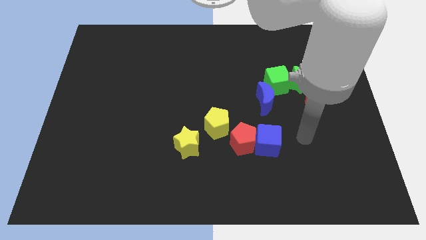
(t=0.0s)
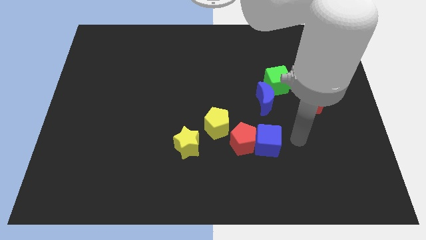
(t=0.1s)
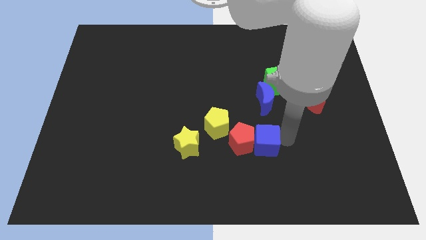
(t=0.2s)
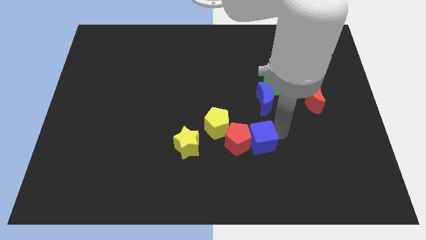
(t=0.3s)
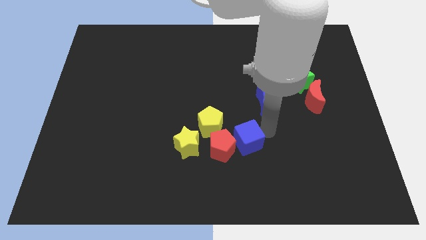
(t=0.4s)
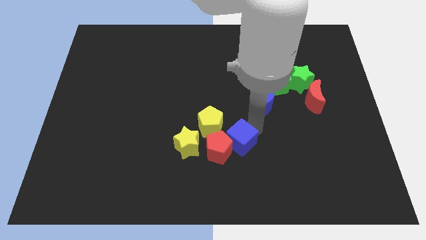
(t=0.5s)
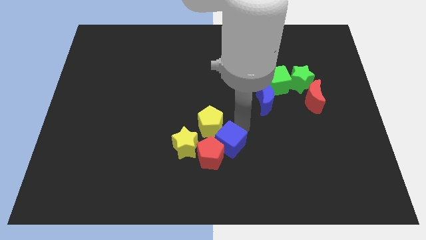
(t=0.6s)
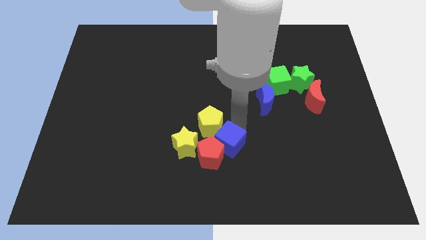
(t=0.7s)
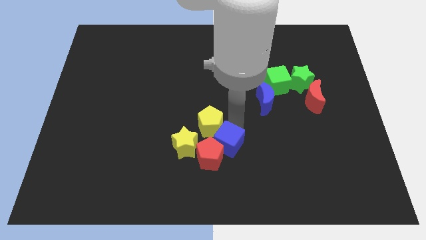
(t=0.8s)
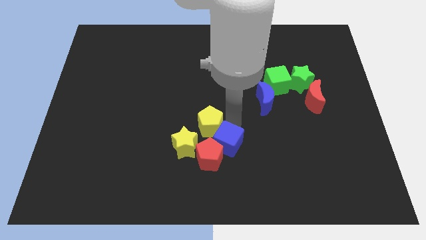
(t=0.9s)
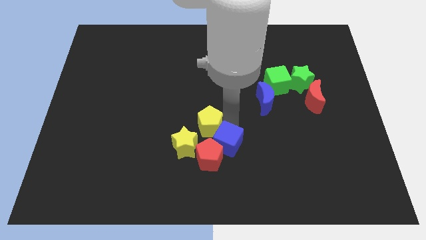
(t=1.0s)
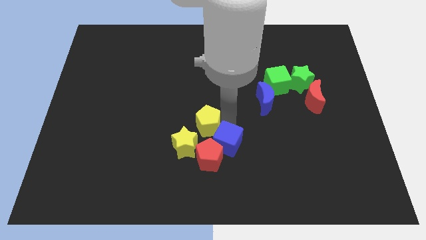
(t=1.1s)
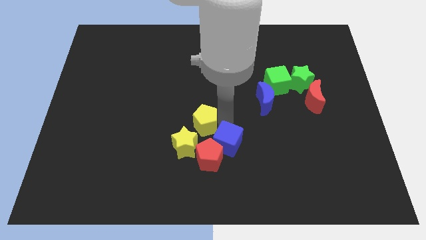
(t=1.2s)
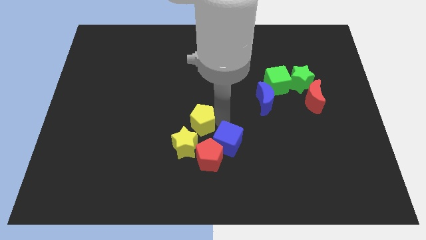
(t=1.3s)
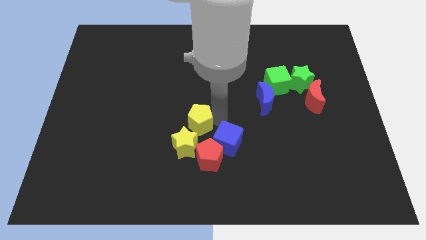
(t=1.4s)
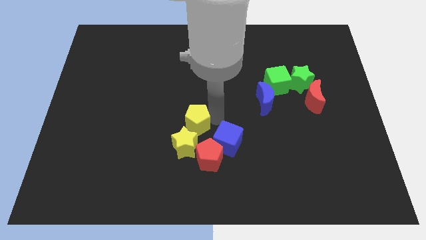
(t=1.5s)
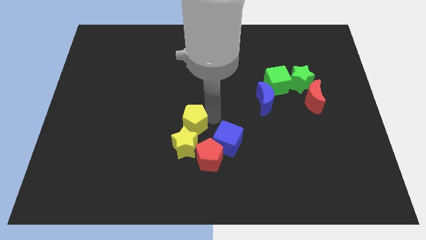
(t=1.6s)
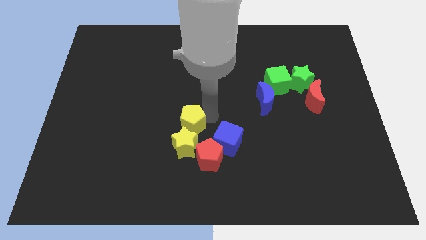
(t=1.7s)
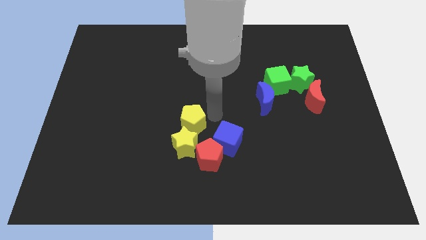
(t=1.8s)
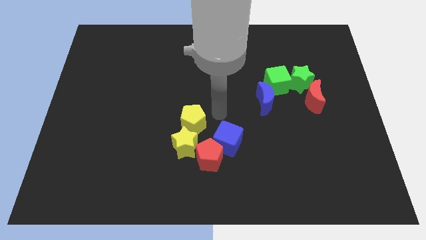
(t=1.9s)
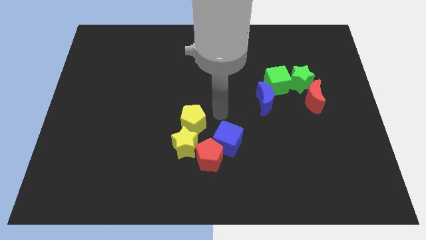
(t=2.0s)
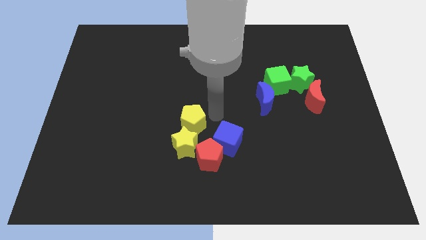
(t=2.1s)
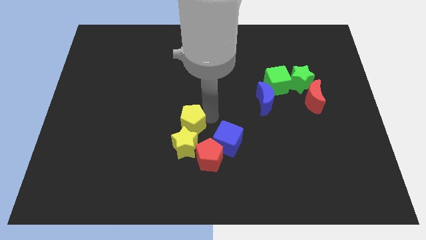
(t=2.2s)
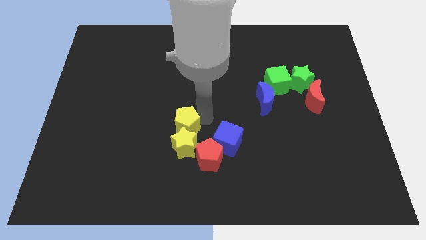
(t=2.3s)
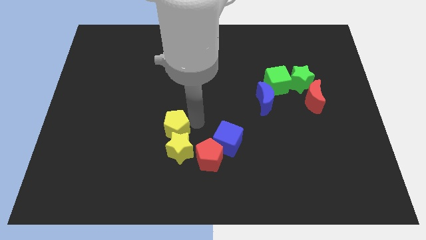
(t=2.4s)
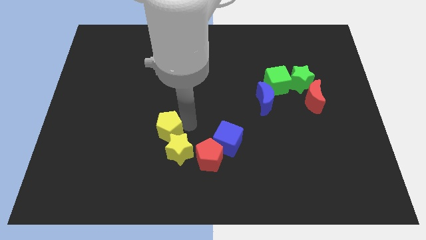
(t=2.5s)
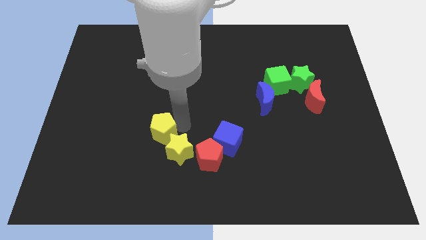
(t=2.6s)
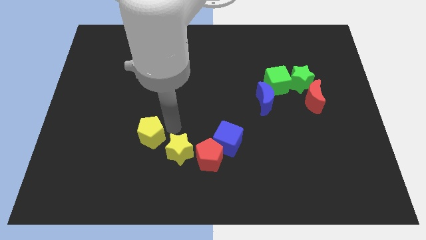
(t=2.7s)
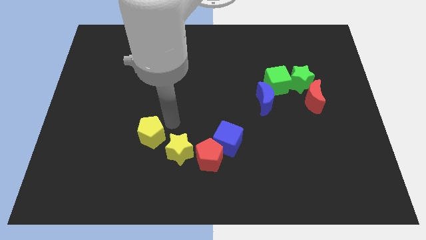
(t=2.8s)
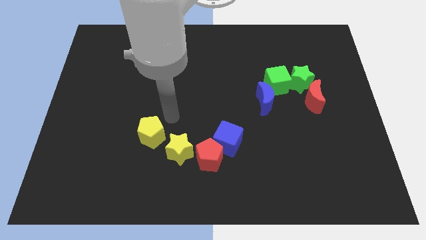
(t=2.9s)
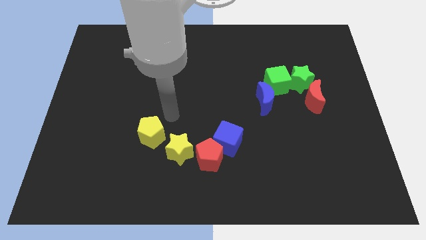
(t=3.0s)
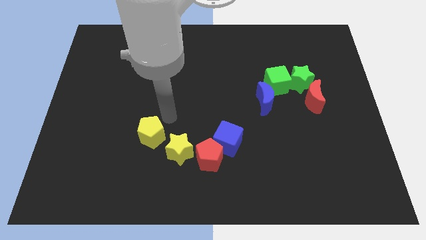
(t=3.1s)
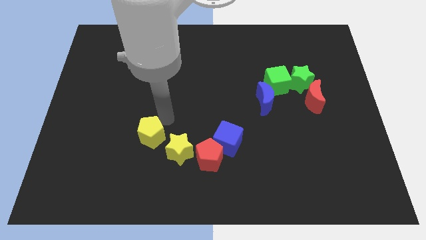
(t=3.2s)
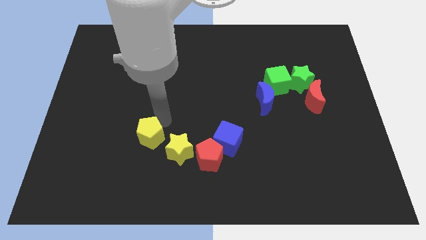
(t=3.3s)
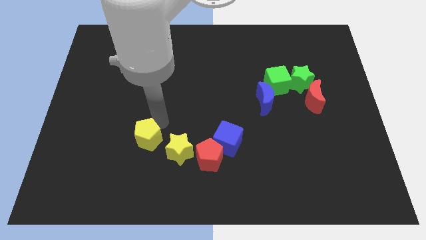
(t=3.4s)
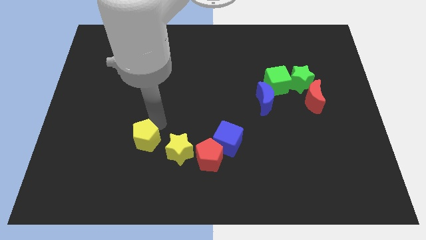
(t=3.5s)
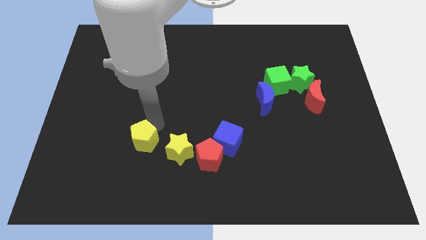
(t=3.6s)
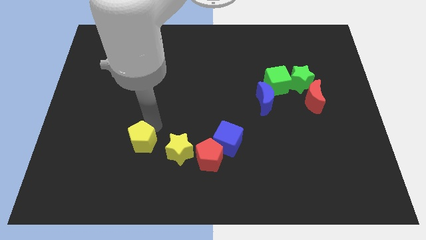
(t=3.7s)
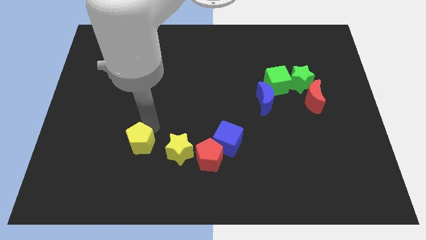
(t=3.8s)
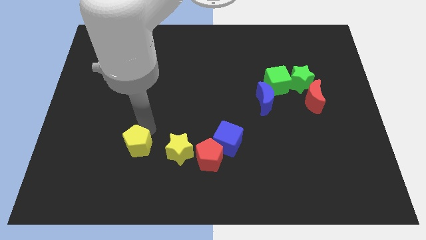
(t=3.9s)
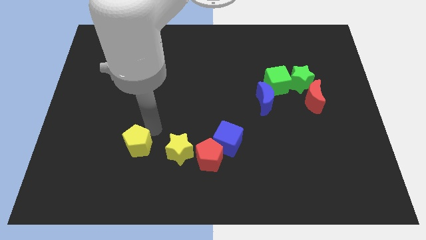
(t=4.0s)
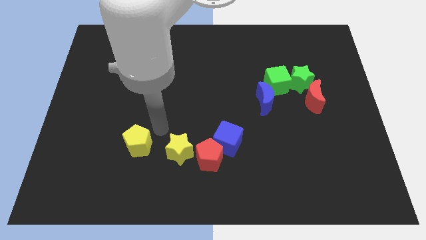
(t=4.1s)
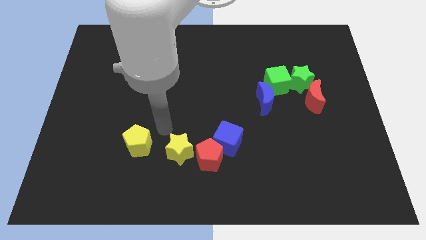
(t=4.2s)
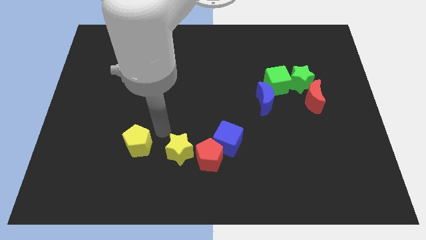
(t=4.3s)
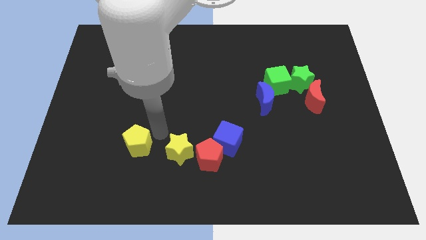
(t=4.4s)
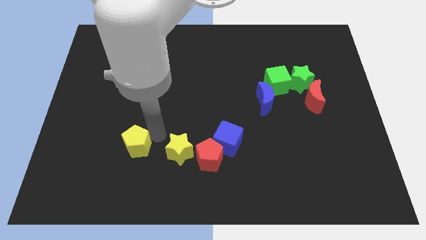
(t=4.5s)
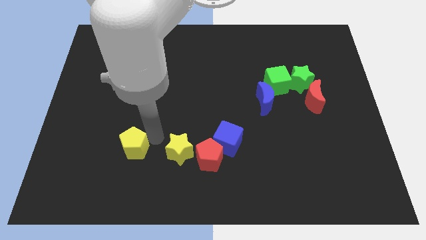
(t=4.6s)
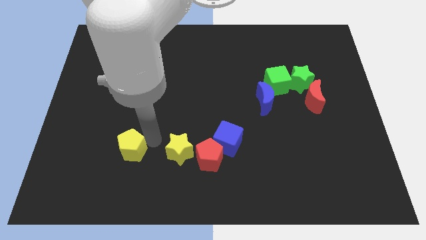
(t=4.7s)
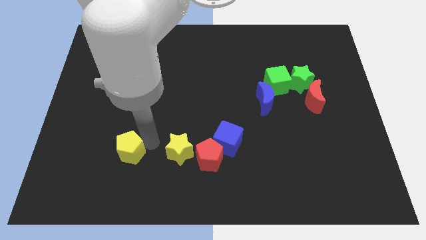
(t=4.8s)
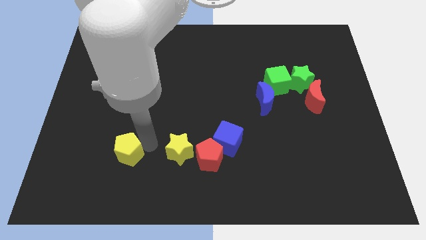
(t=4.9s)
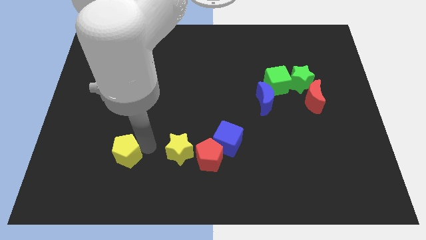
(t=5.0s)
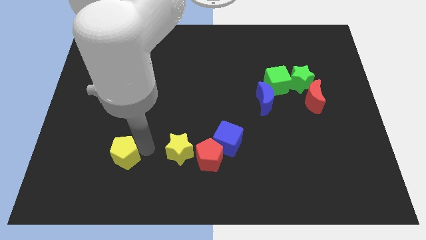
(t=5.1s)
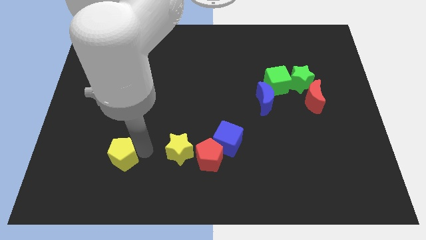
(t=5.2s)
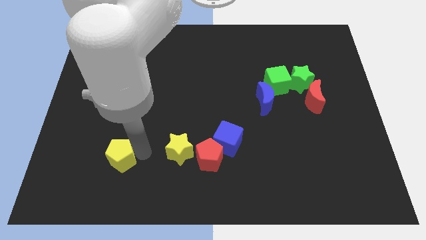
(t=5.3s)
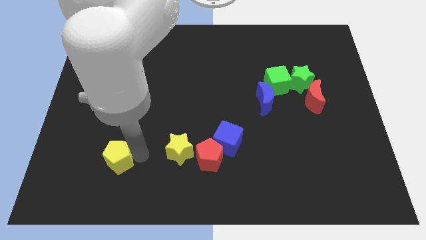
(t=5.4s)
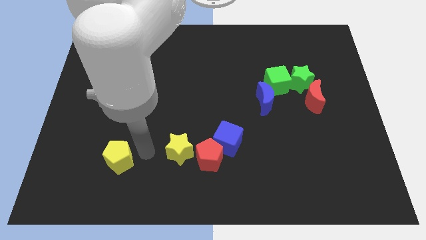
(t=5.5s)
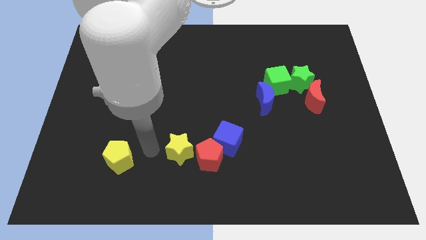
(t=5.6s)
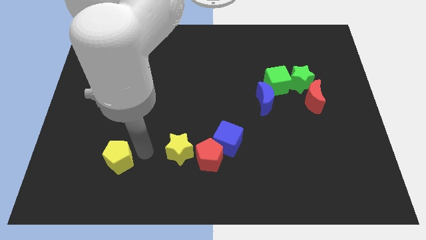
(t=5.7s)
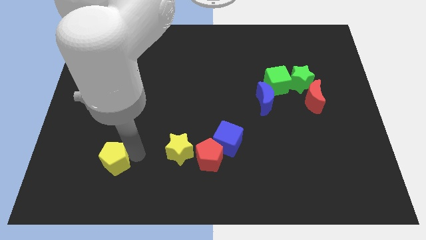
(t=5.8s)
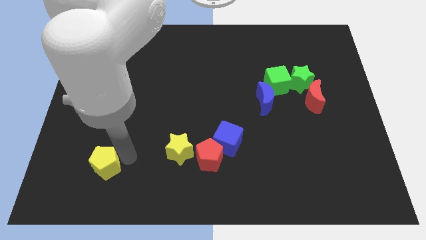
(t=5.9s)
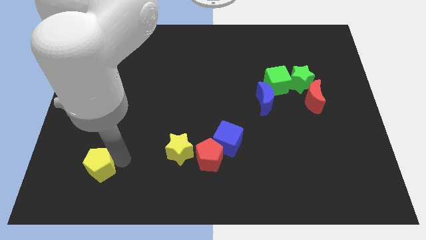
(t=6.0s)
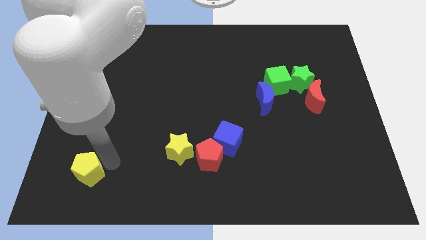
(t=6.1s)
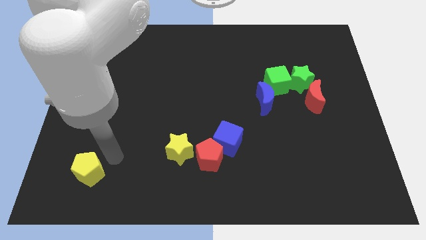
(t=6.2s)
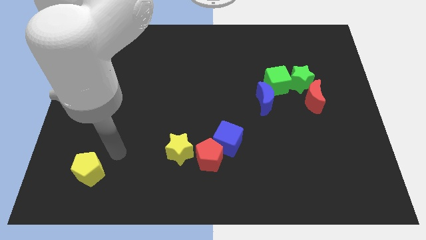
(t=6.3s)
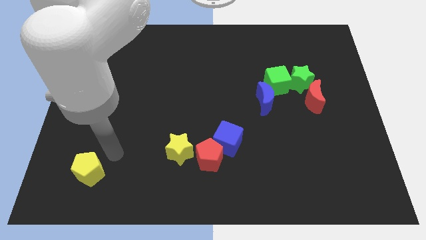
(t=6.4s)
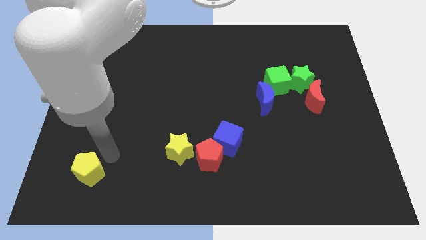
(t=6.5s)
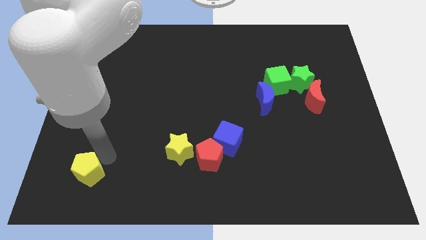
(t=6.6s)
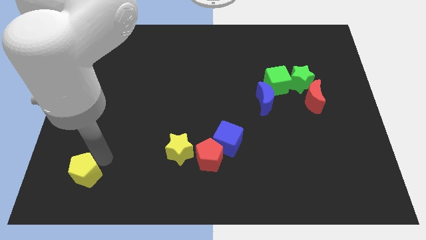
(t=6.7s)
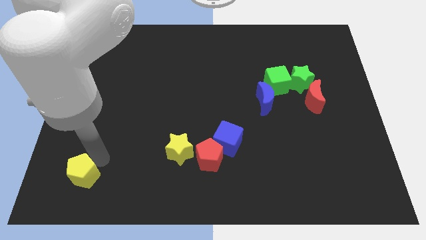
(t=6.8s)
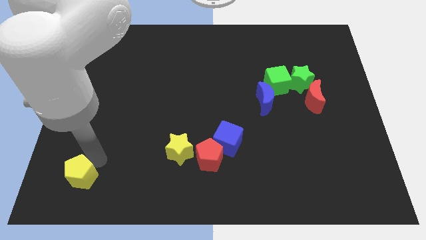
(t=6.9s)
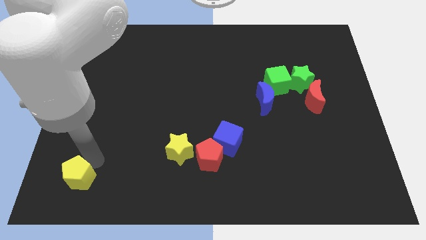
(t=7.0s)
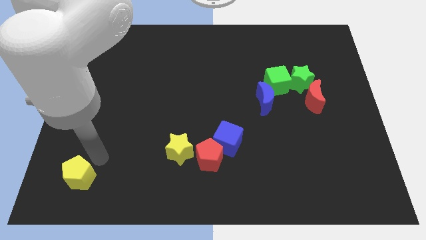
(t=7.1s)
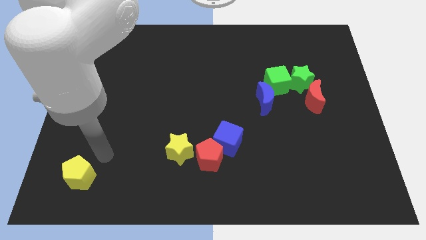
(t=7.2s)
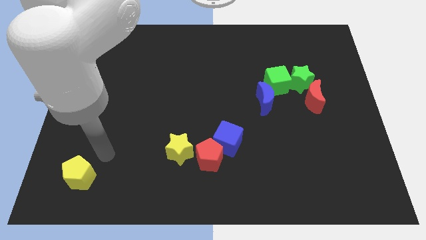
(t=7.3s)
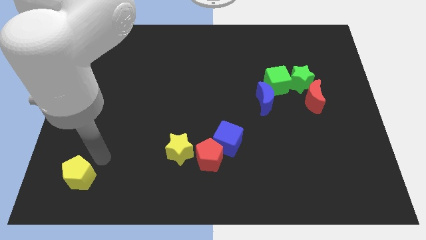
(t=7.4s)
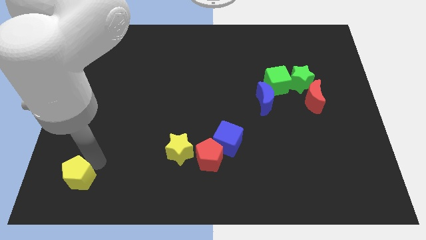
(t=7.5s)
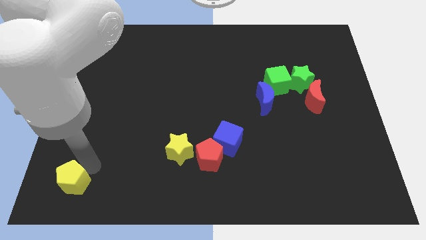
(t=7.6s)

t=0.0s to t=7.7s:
push the yellow pentagon to the bottom left corner
